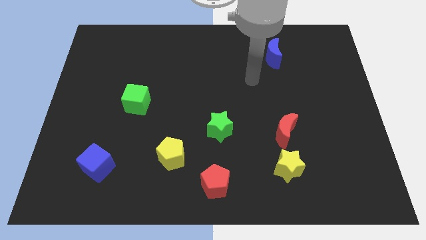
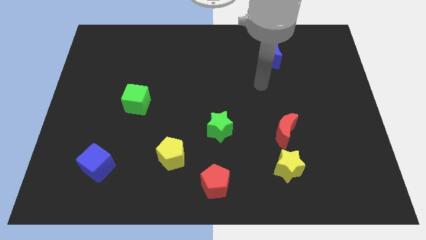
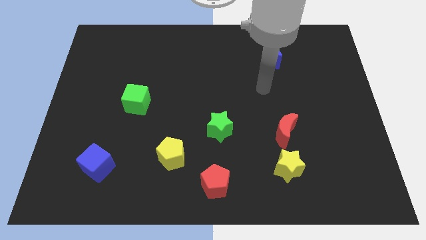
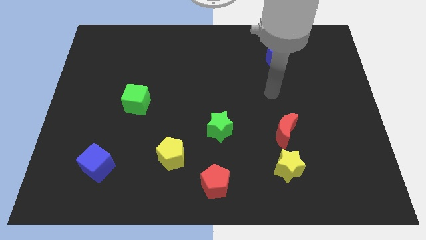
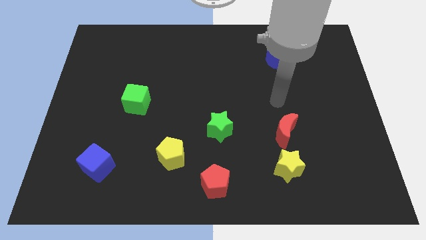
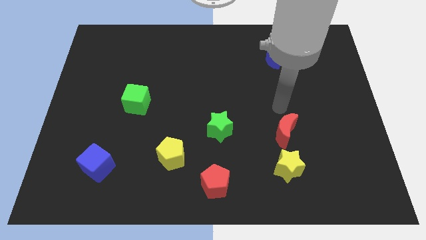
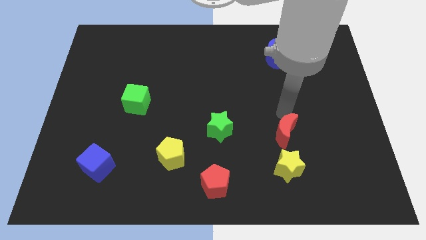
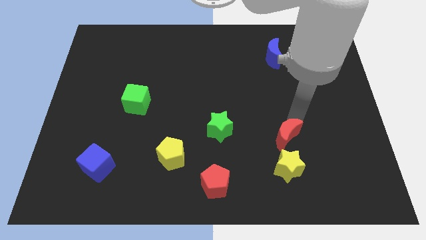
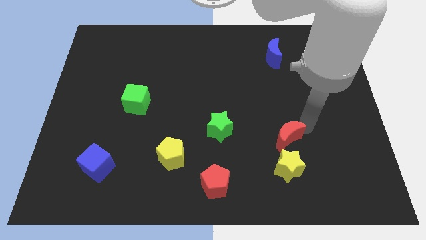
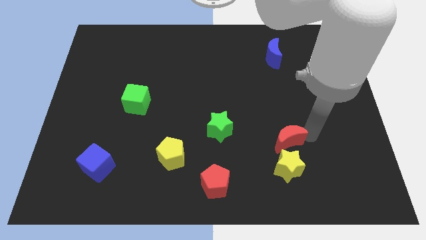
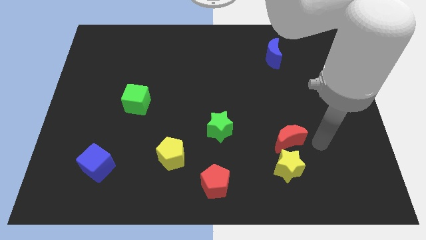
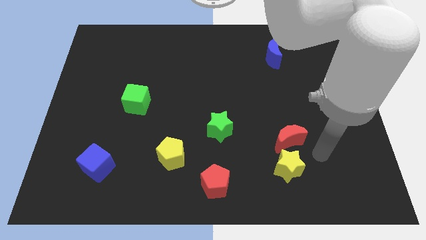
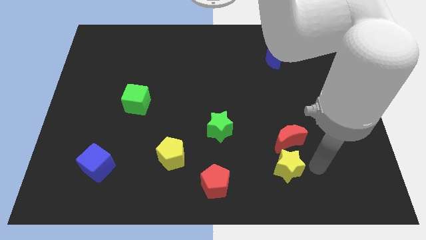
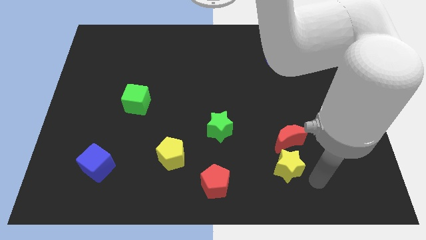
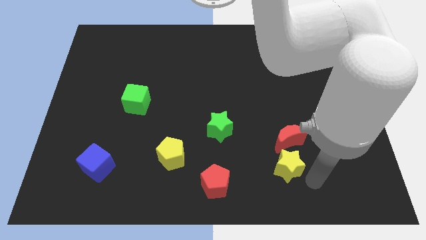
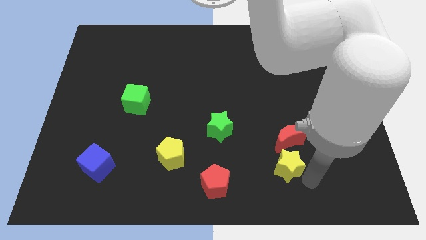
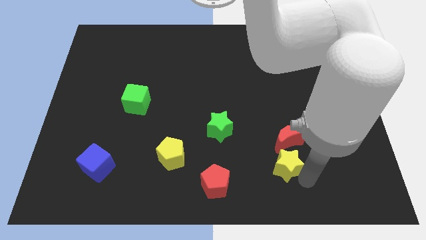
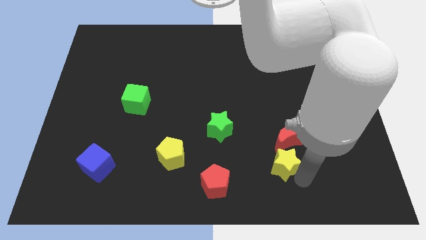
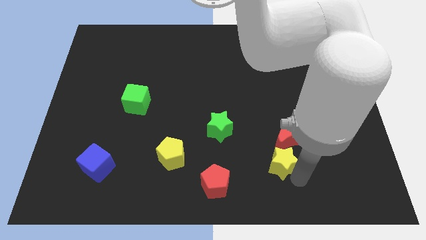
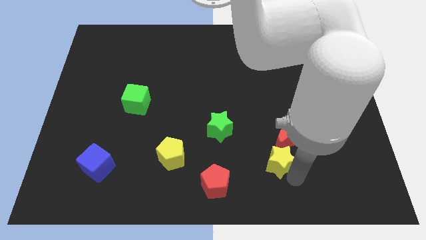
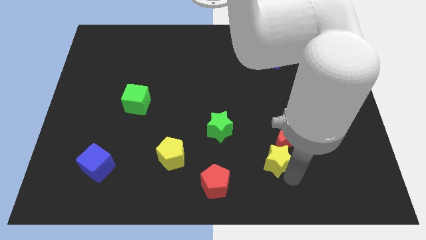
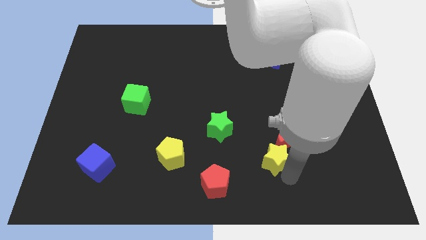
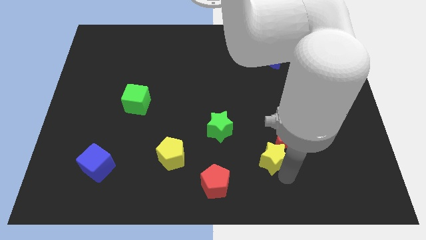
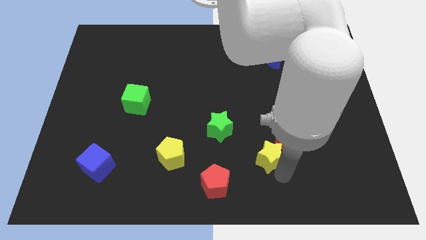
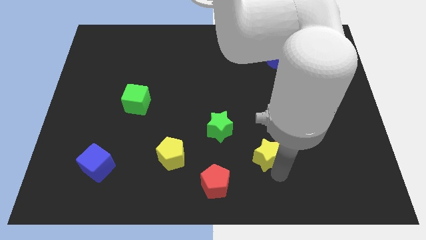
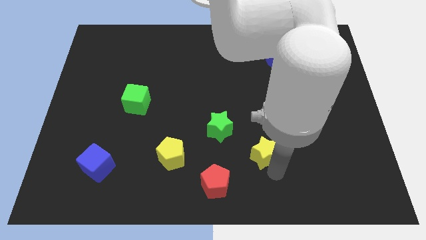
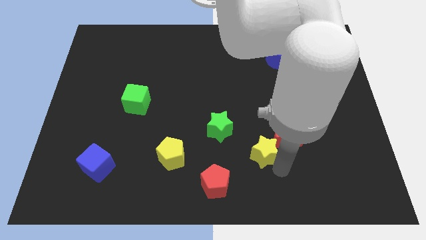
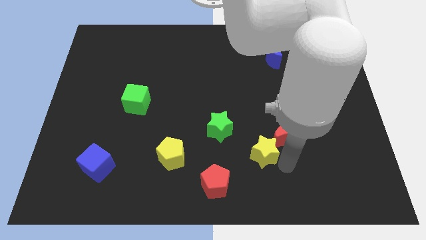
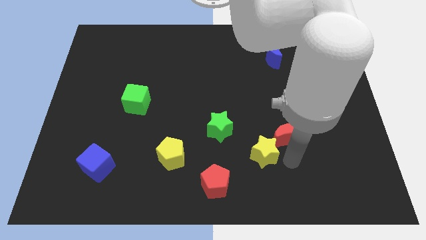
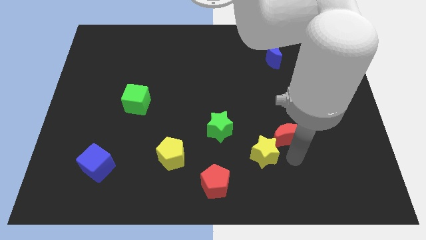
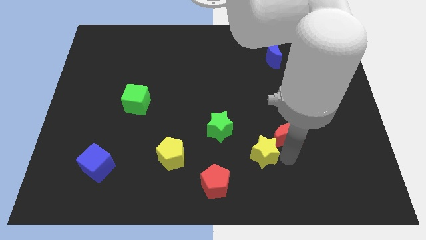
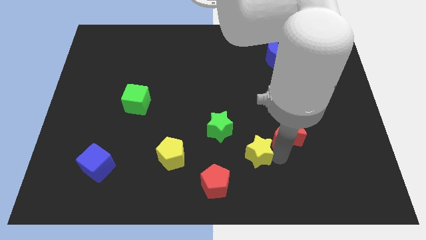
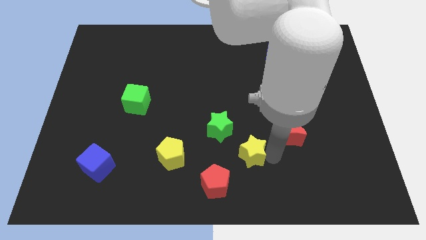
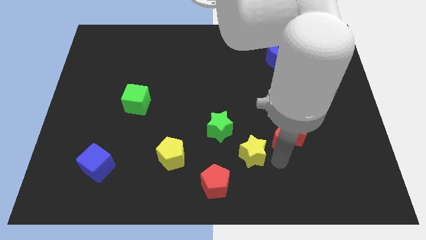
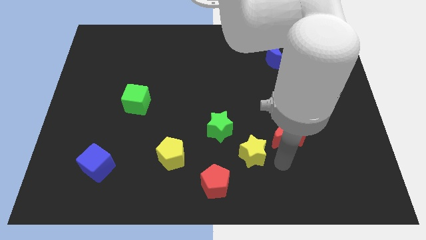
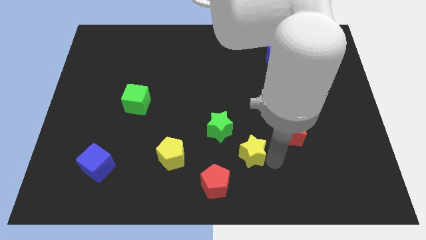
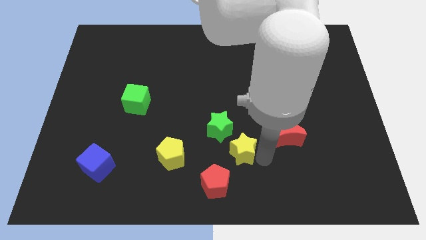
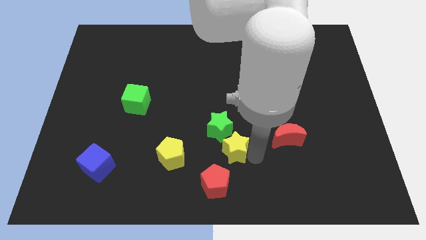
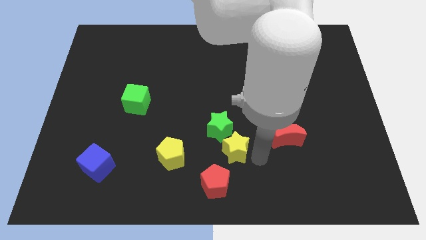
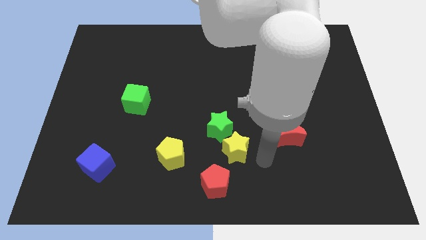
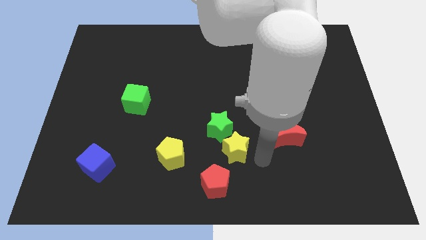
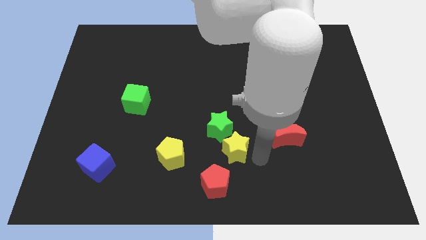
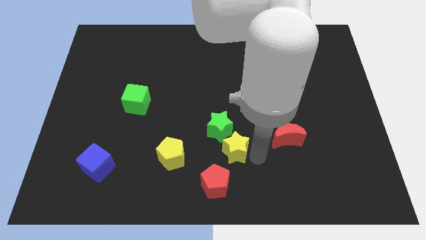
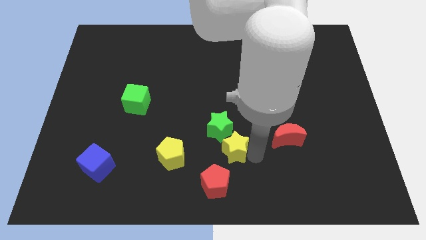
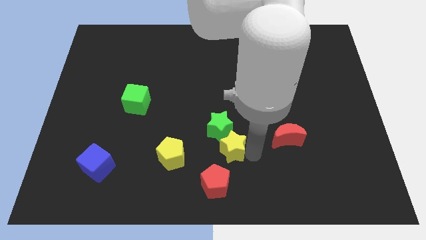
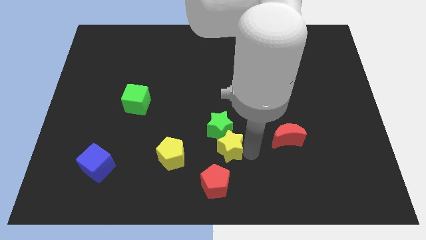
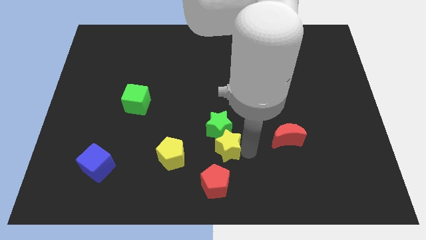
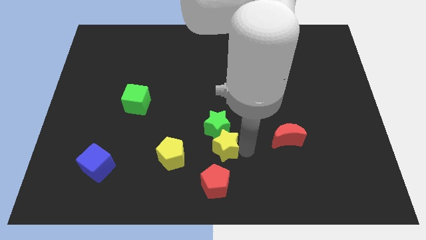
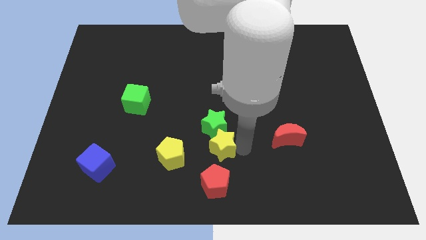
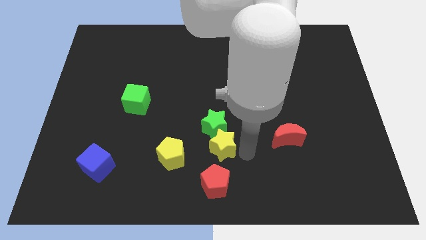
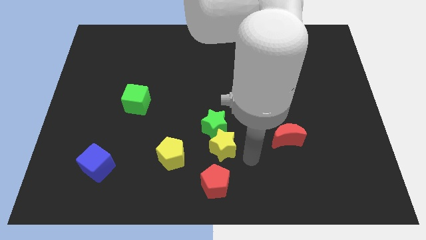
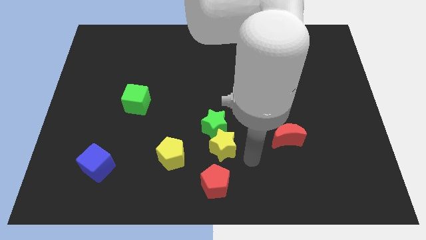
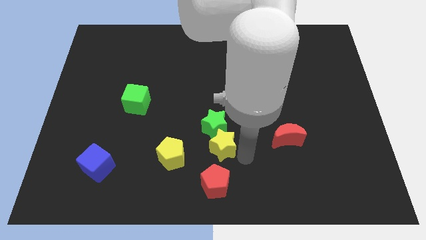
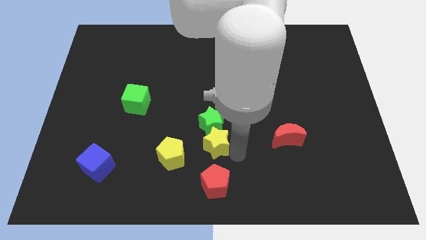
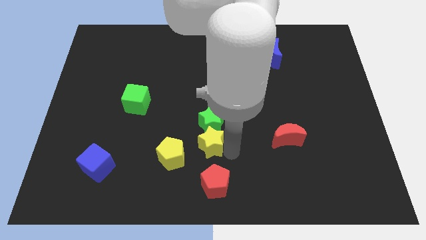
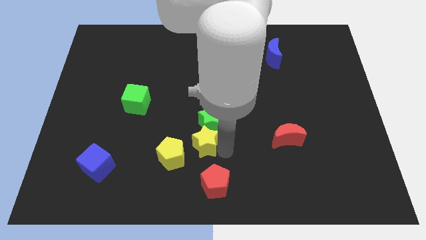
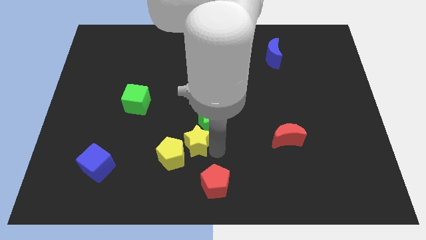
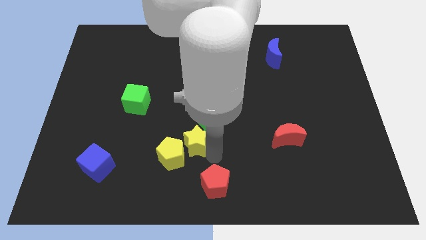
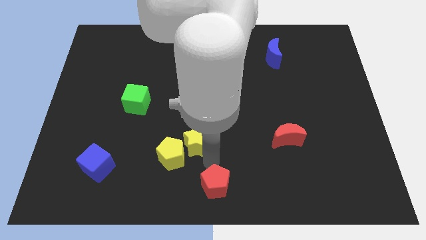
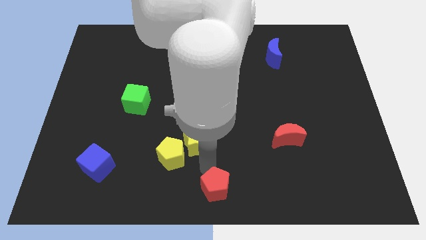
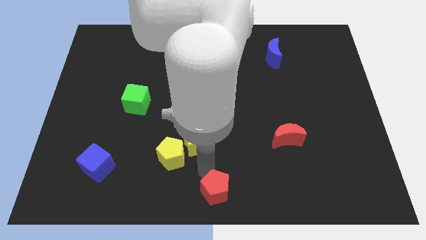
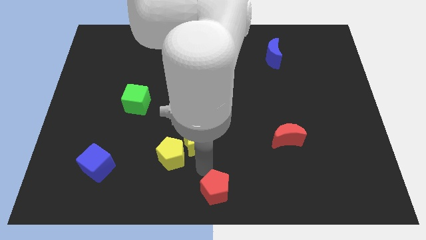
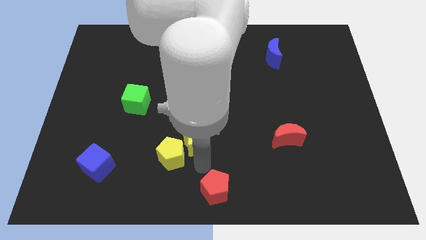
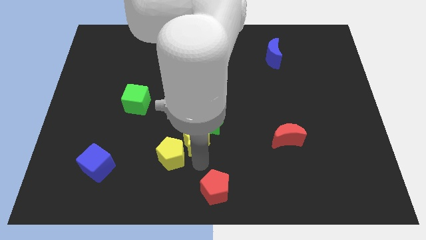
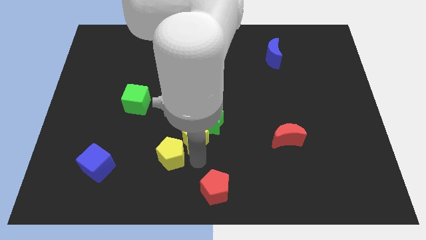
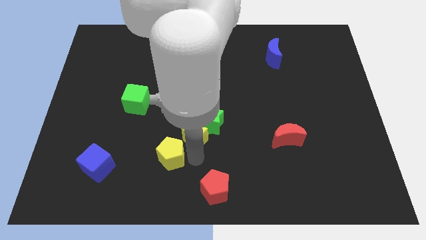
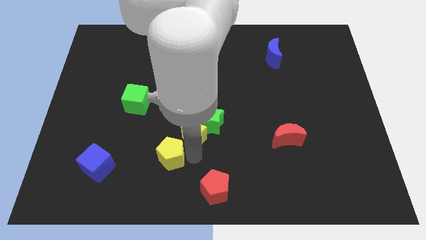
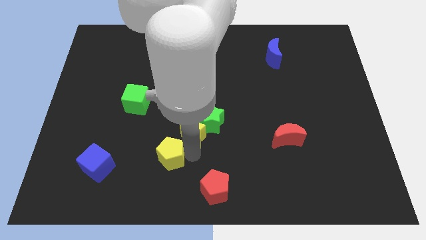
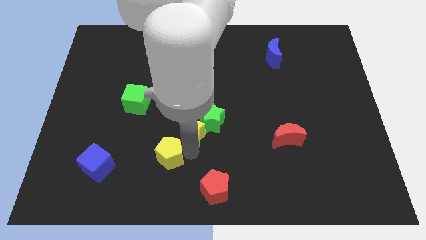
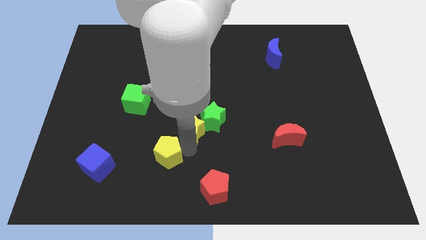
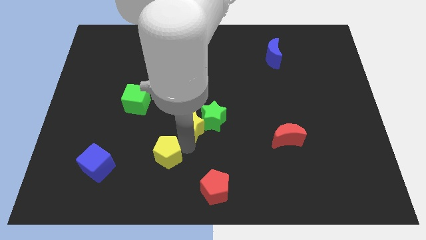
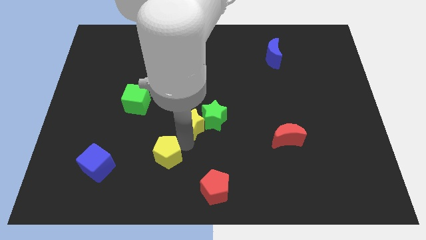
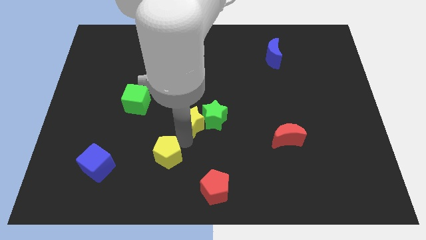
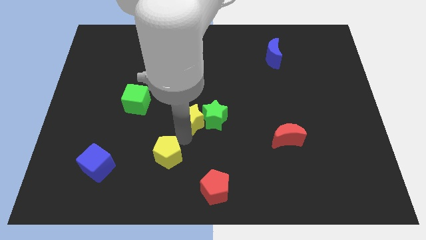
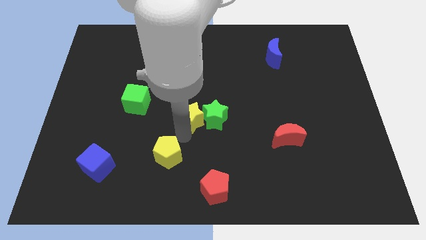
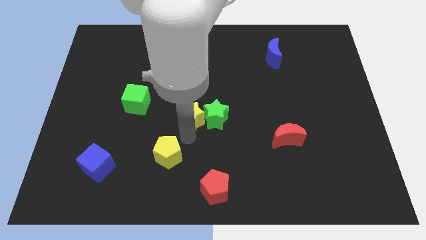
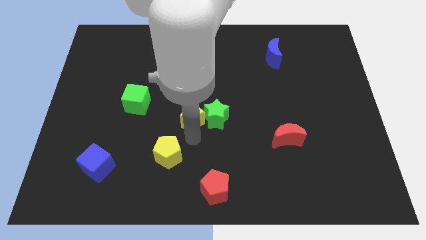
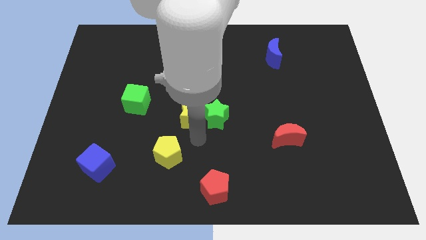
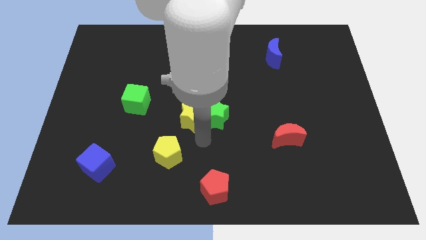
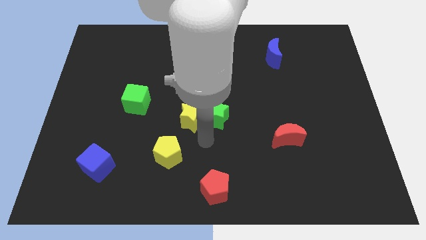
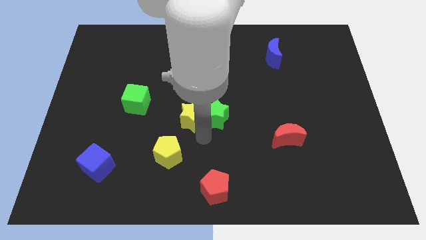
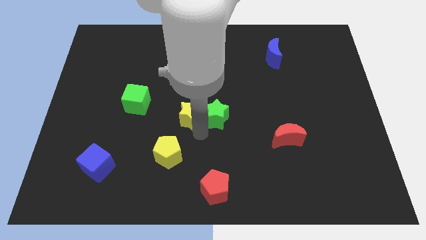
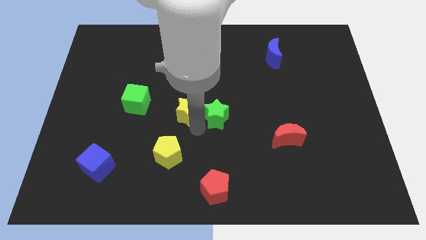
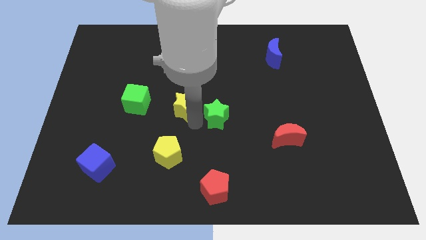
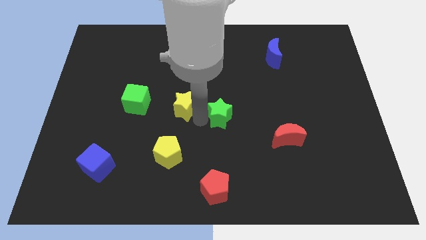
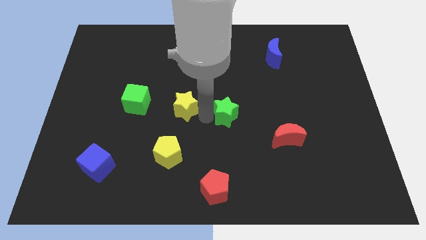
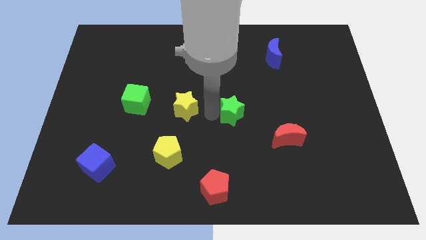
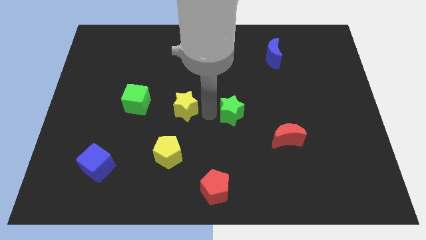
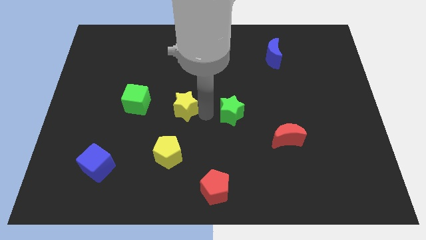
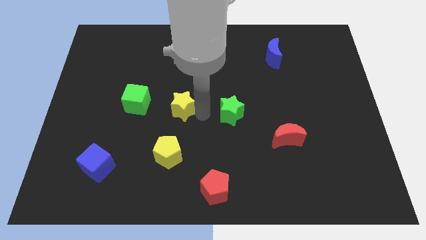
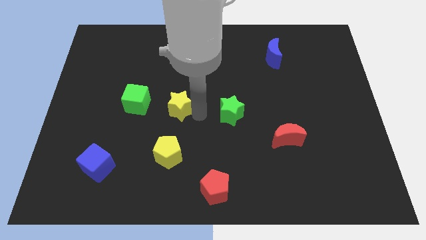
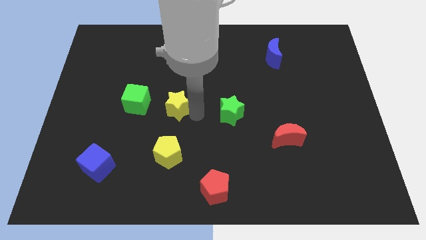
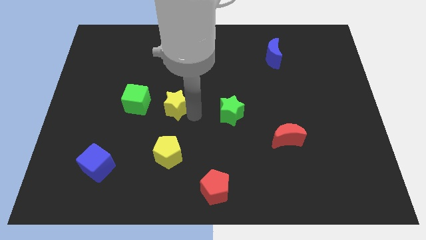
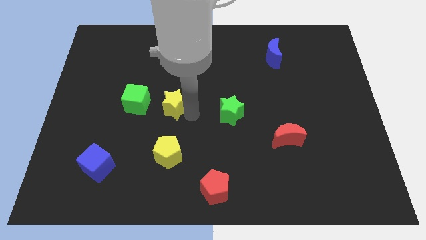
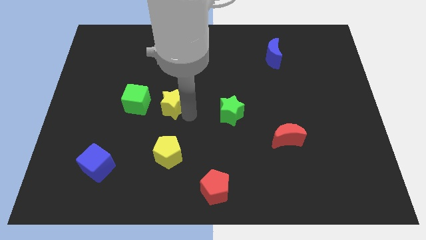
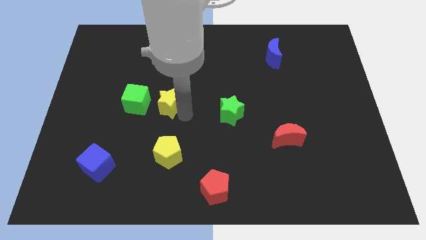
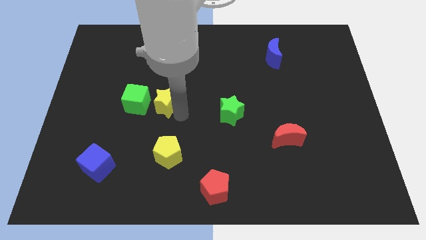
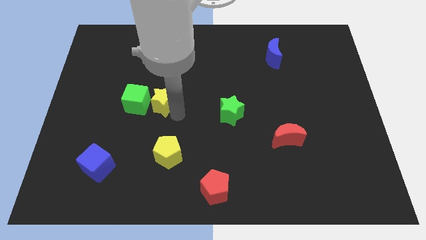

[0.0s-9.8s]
put the yellow star next to the green cube
